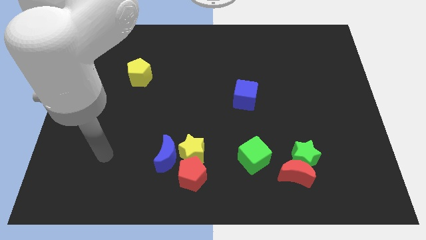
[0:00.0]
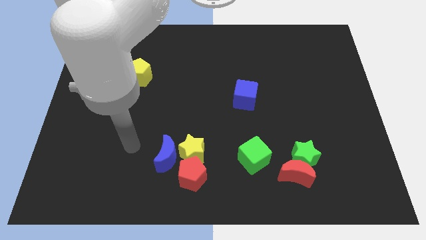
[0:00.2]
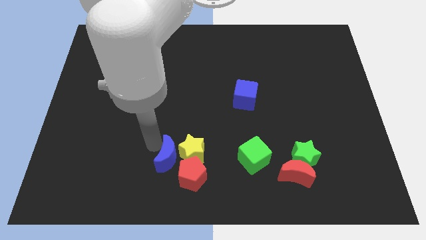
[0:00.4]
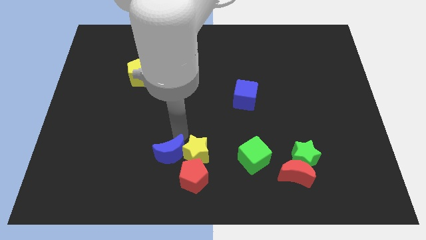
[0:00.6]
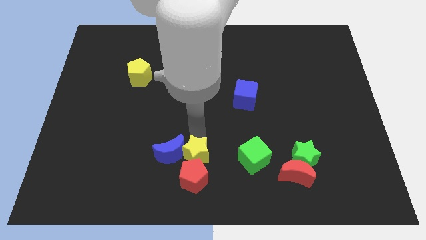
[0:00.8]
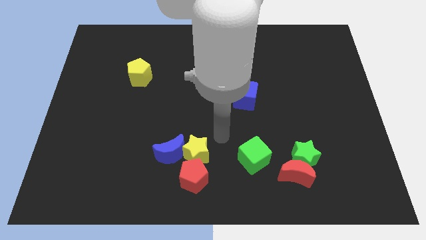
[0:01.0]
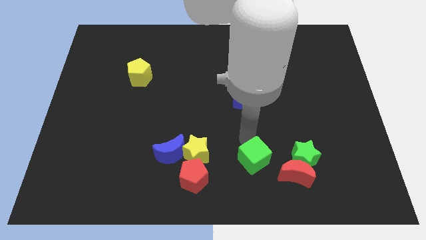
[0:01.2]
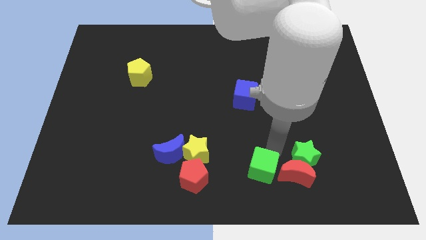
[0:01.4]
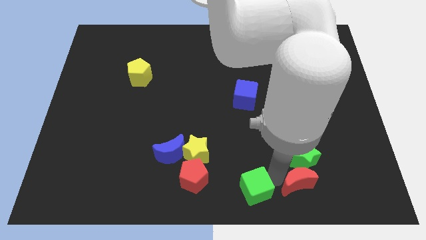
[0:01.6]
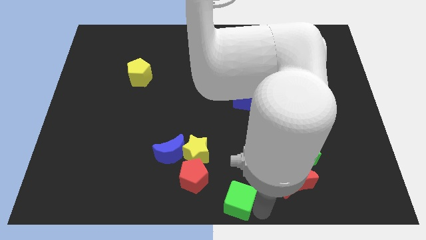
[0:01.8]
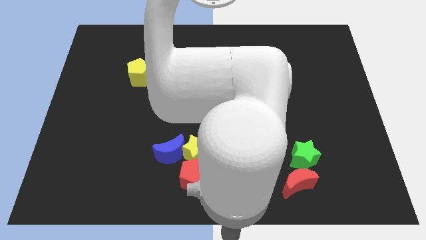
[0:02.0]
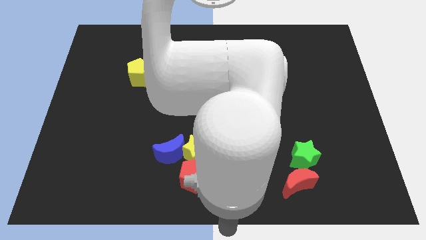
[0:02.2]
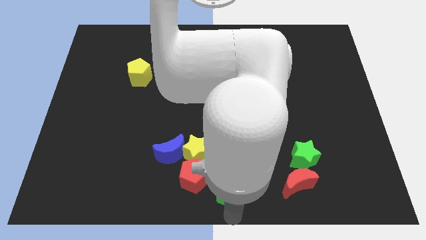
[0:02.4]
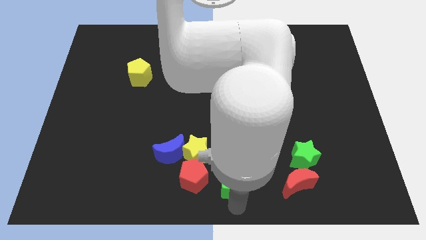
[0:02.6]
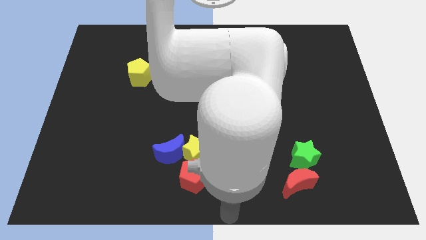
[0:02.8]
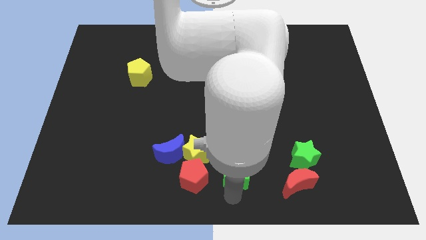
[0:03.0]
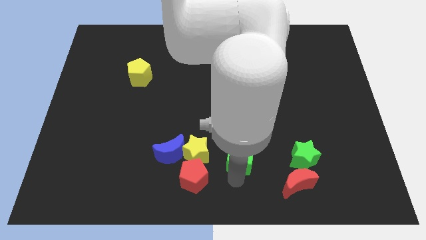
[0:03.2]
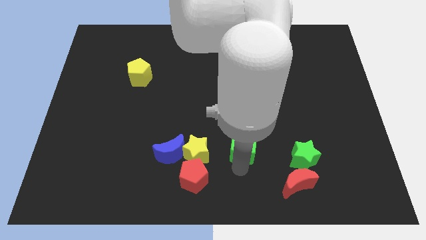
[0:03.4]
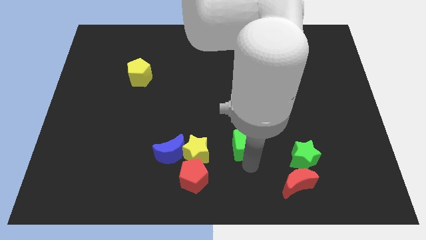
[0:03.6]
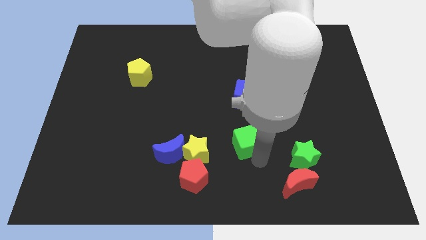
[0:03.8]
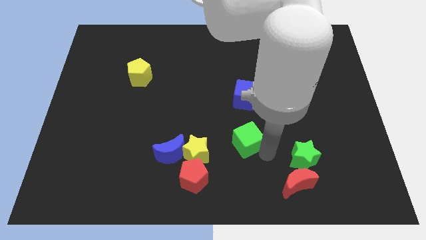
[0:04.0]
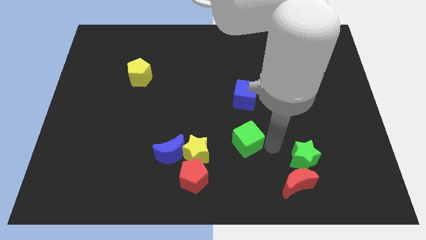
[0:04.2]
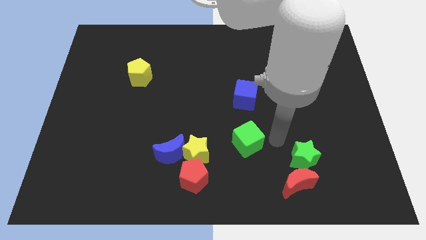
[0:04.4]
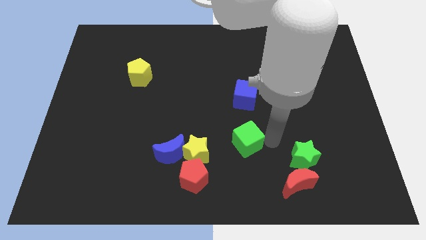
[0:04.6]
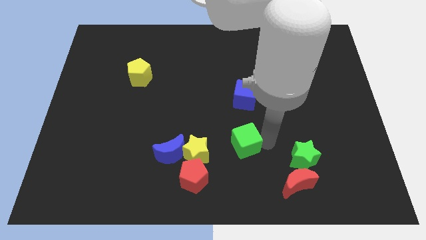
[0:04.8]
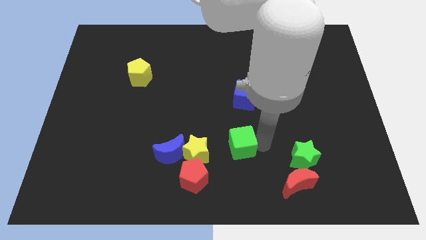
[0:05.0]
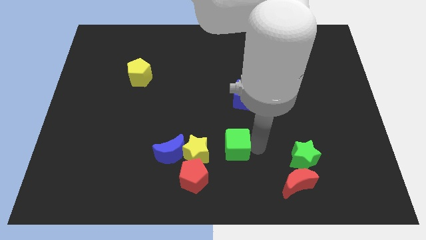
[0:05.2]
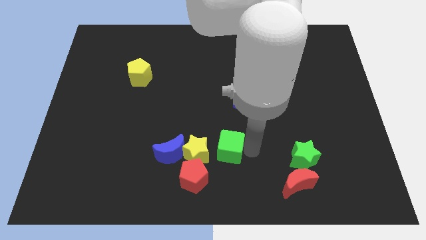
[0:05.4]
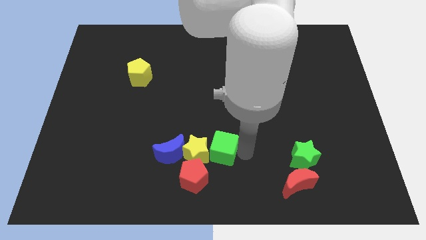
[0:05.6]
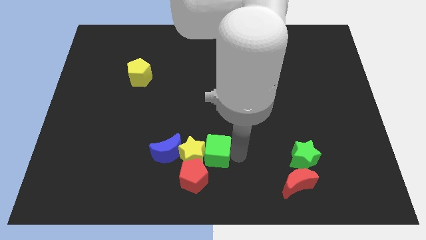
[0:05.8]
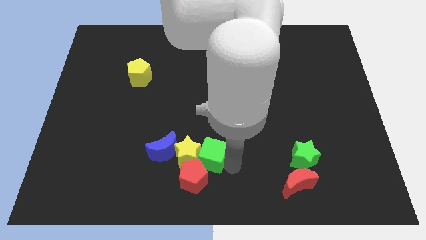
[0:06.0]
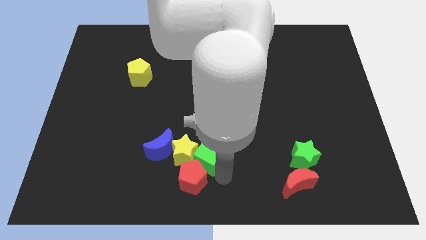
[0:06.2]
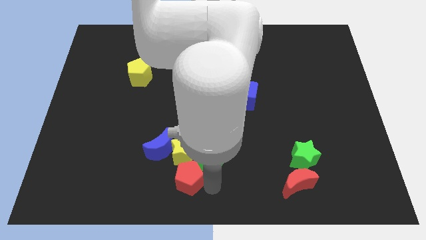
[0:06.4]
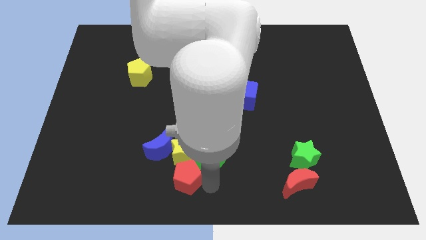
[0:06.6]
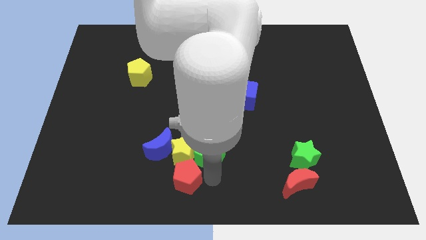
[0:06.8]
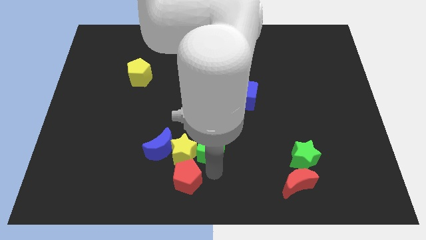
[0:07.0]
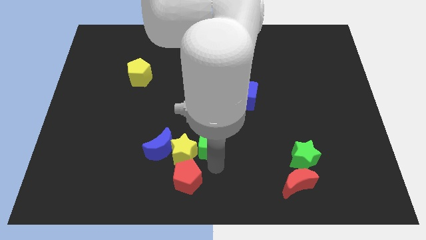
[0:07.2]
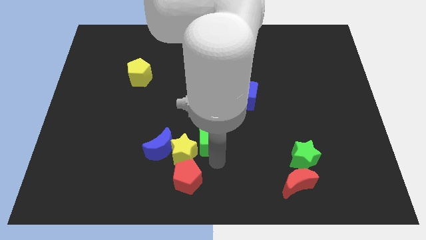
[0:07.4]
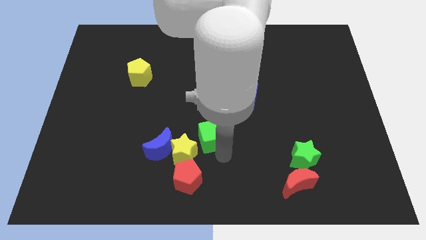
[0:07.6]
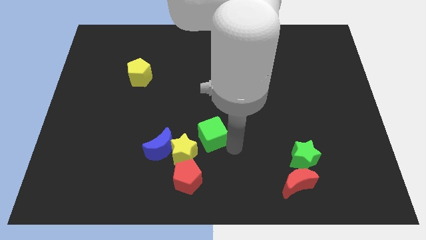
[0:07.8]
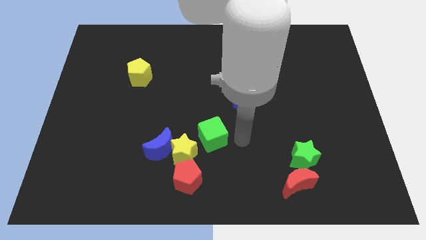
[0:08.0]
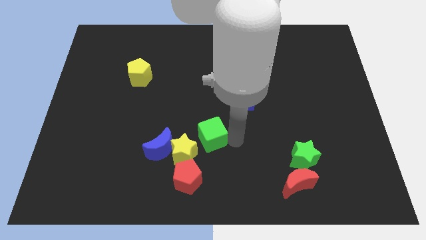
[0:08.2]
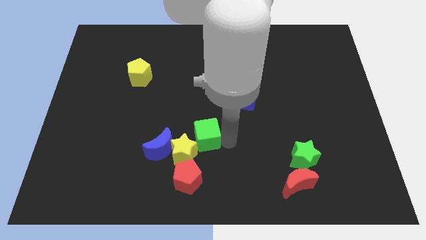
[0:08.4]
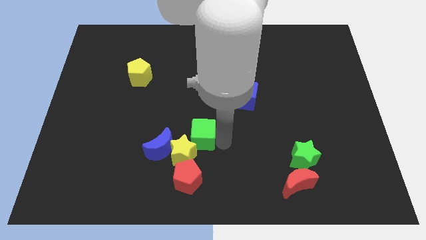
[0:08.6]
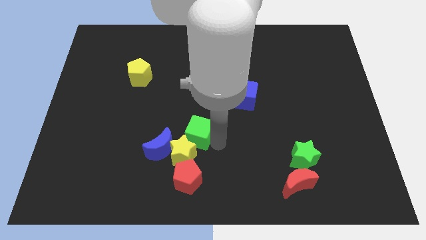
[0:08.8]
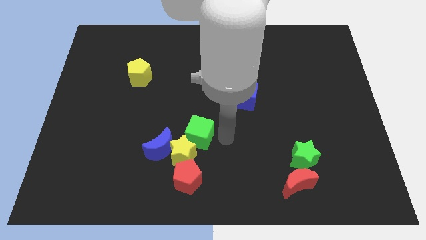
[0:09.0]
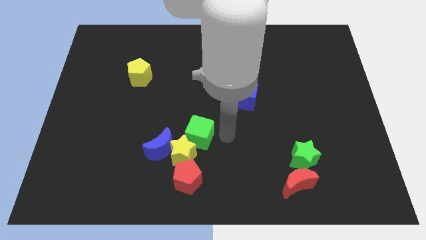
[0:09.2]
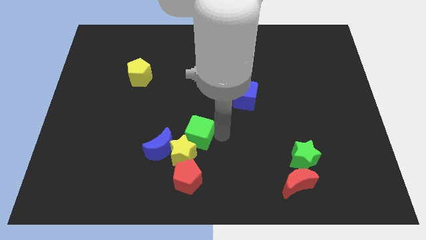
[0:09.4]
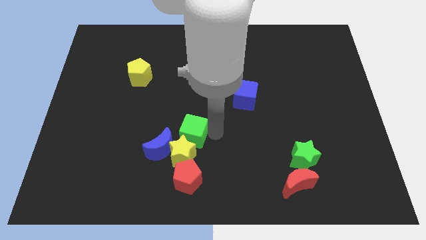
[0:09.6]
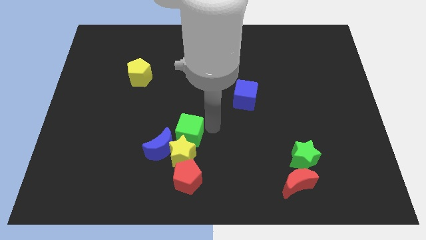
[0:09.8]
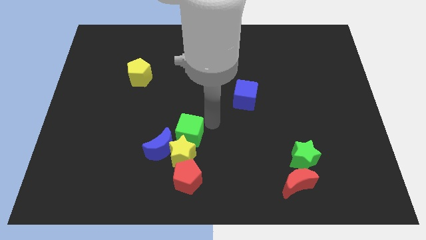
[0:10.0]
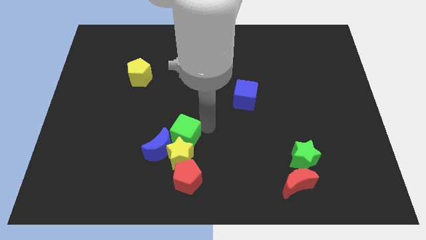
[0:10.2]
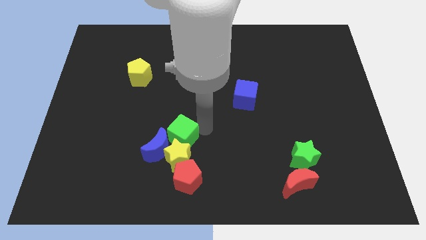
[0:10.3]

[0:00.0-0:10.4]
move the green cube next to the blue moon

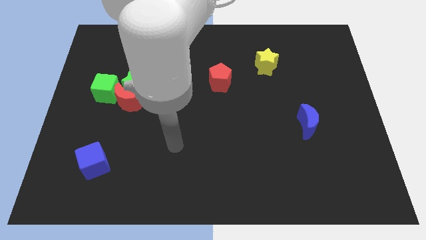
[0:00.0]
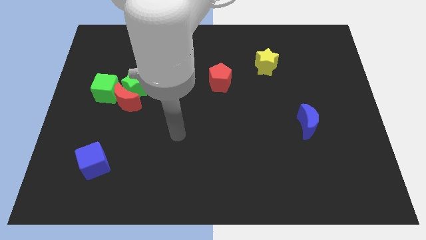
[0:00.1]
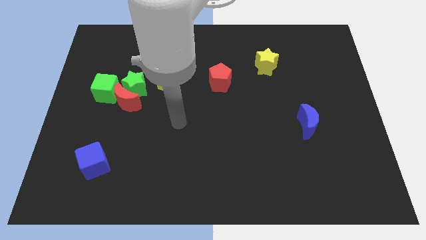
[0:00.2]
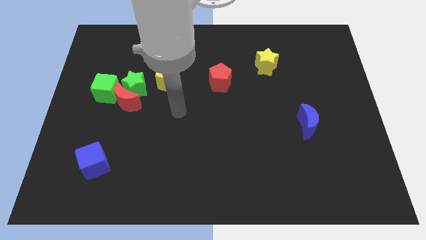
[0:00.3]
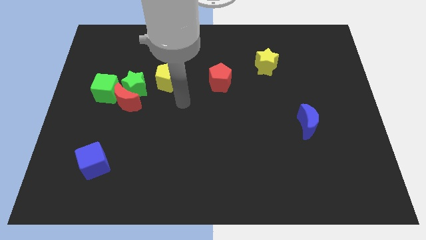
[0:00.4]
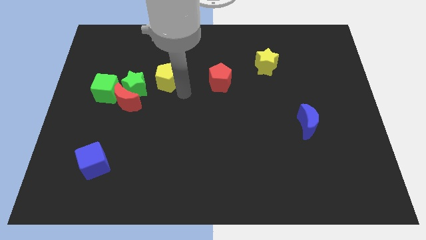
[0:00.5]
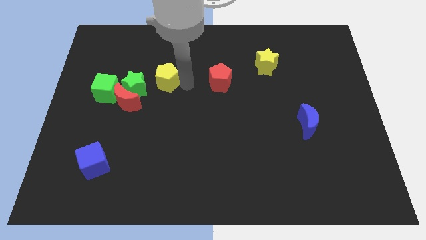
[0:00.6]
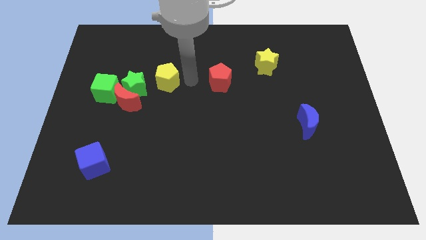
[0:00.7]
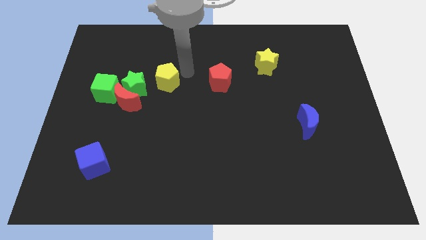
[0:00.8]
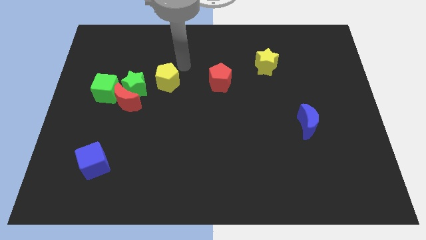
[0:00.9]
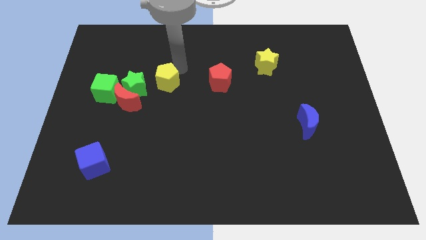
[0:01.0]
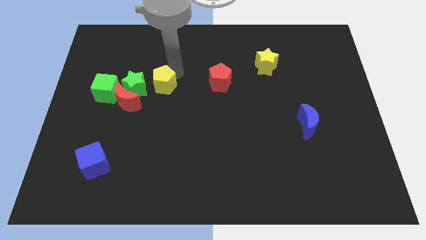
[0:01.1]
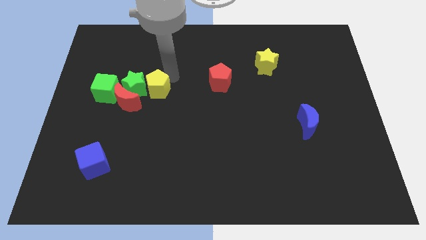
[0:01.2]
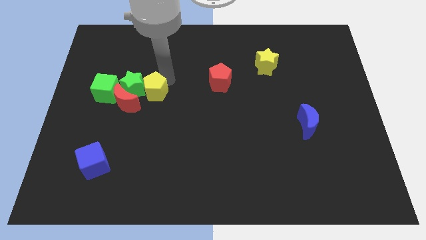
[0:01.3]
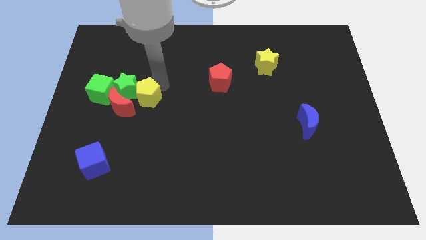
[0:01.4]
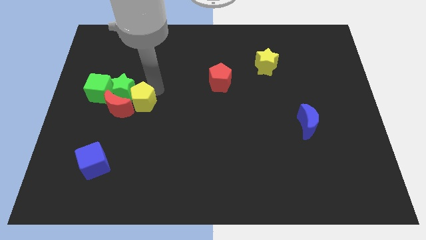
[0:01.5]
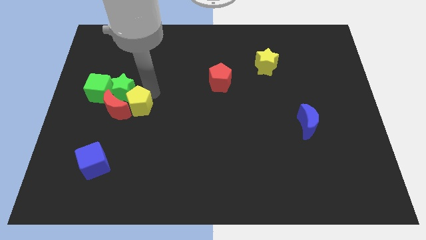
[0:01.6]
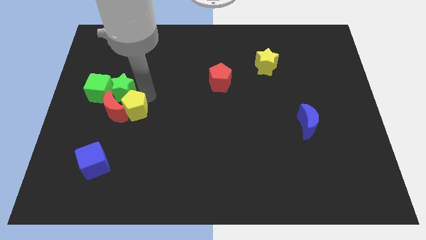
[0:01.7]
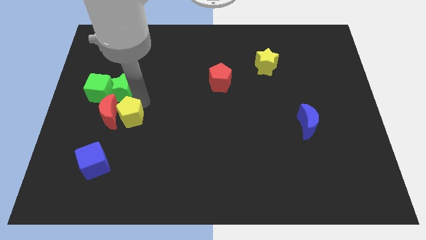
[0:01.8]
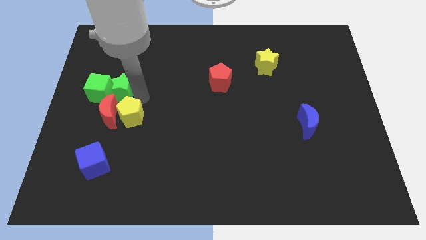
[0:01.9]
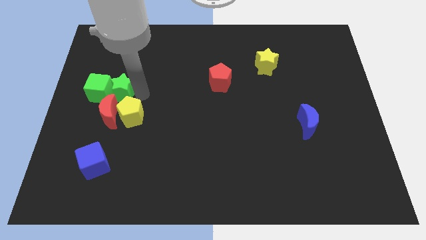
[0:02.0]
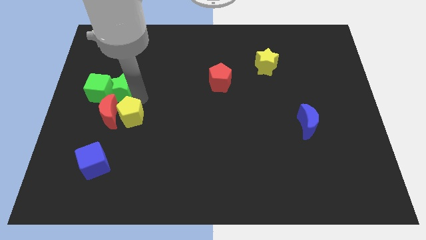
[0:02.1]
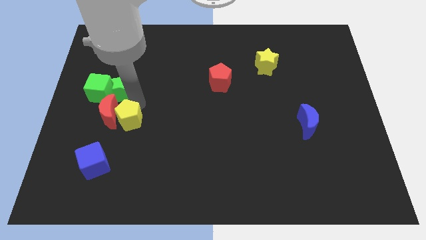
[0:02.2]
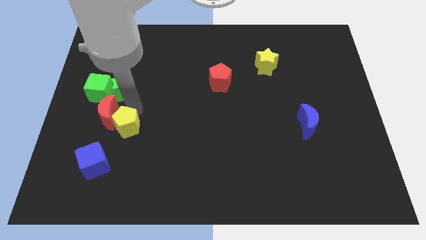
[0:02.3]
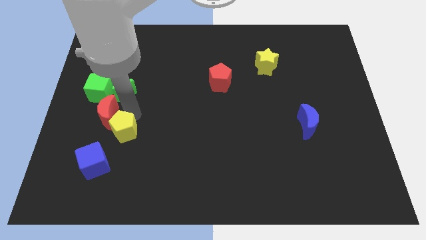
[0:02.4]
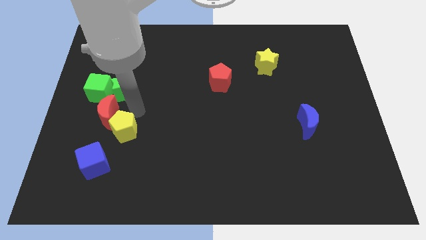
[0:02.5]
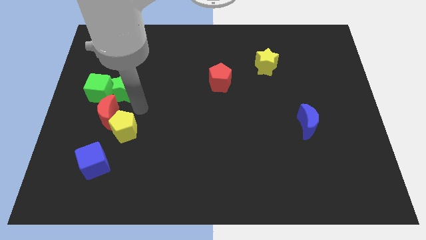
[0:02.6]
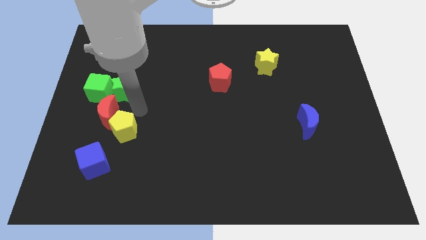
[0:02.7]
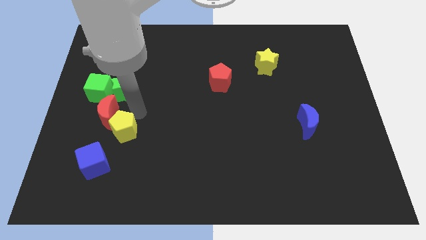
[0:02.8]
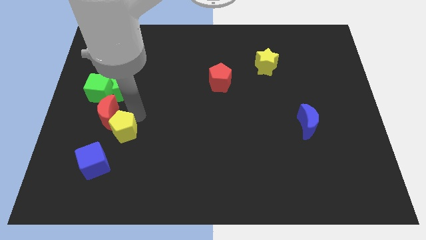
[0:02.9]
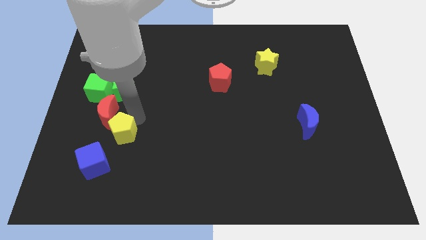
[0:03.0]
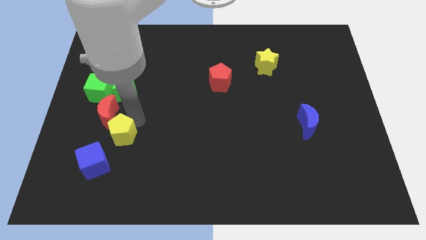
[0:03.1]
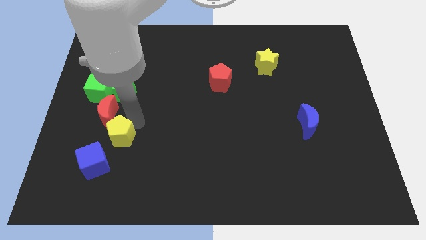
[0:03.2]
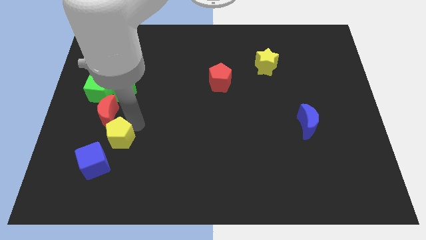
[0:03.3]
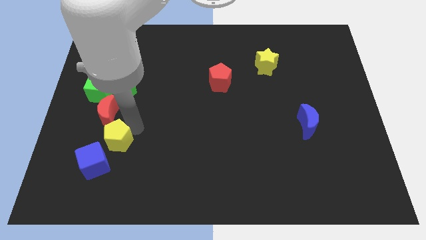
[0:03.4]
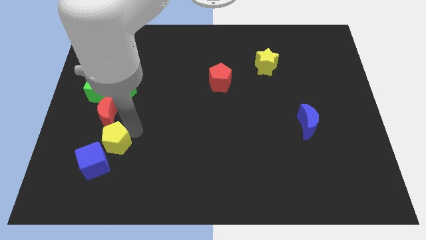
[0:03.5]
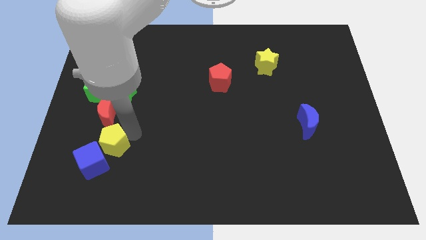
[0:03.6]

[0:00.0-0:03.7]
push the yellow pentagon close to the blue cube
